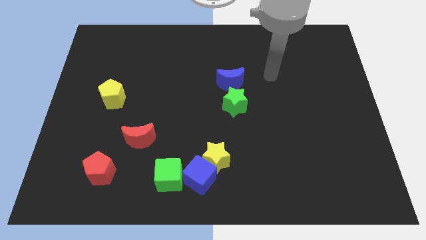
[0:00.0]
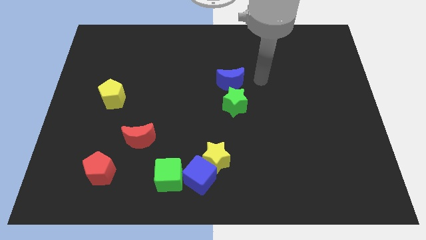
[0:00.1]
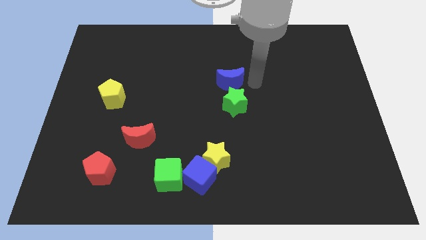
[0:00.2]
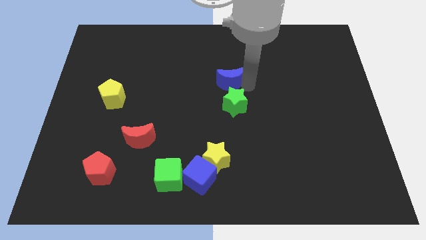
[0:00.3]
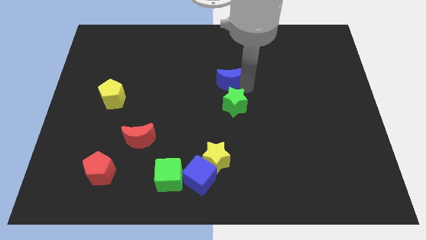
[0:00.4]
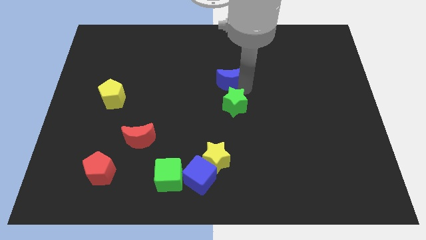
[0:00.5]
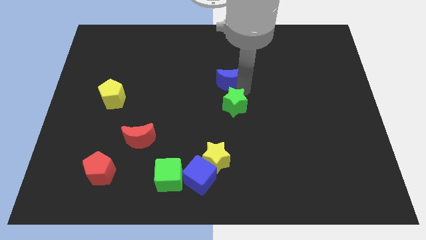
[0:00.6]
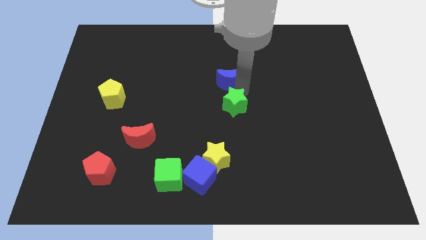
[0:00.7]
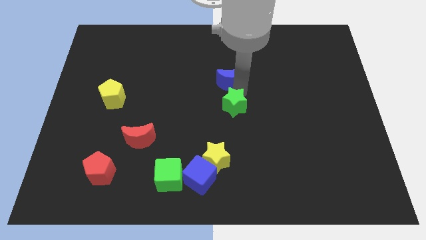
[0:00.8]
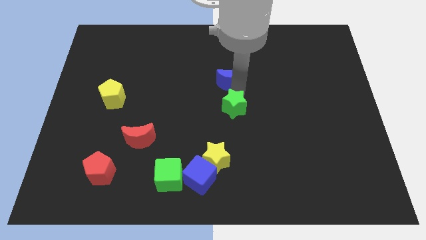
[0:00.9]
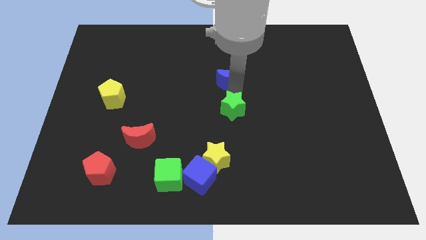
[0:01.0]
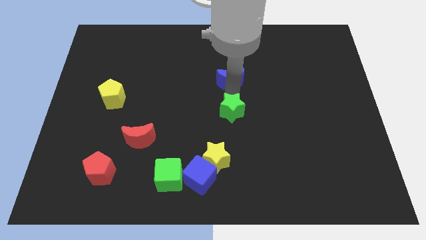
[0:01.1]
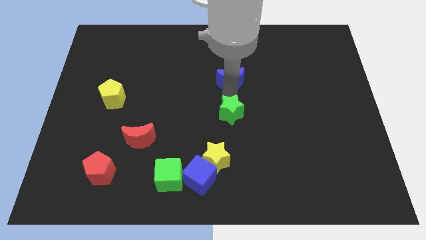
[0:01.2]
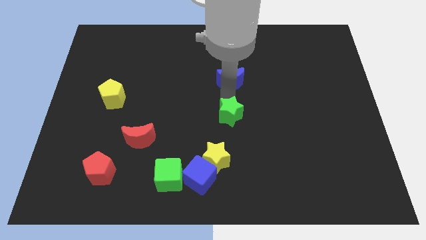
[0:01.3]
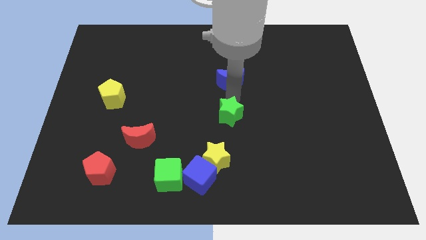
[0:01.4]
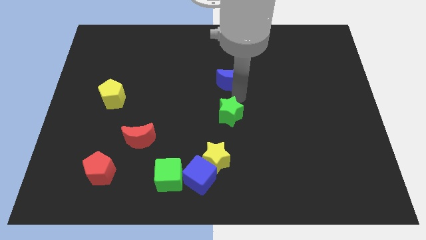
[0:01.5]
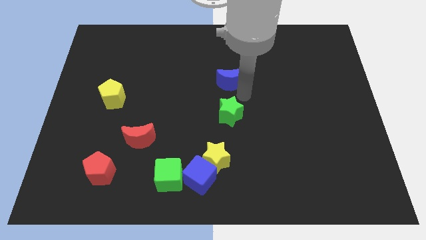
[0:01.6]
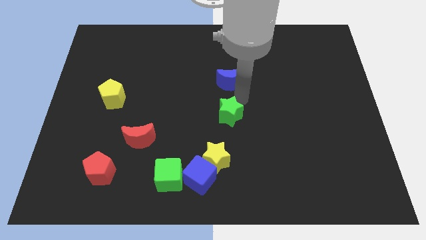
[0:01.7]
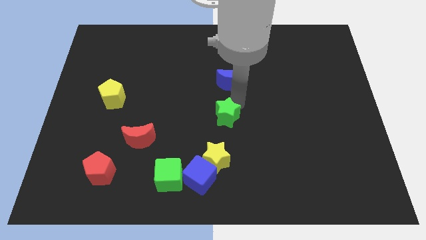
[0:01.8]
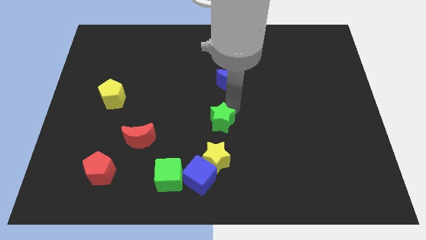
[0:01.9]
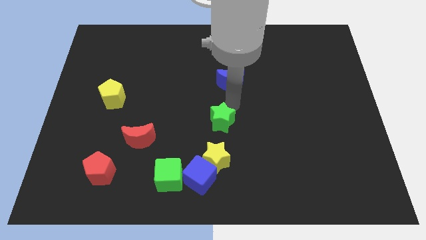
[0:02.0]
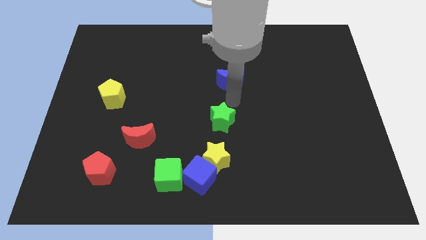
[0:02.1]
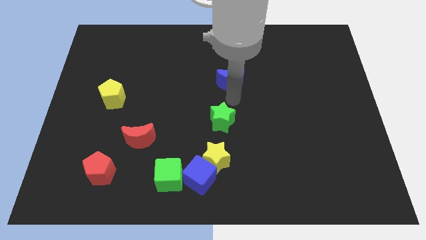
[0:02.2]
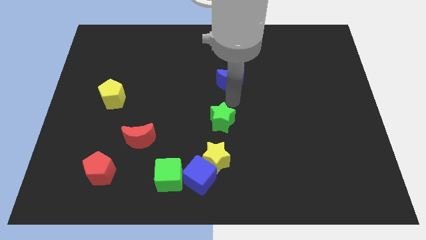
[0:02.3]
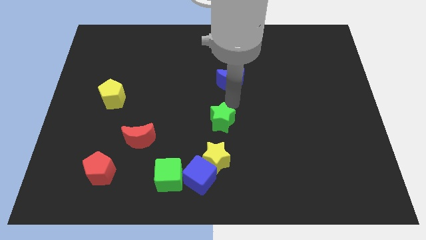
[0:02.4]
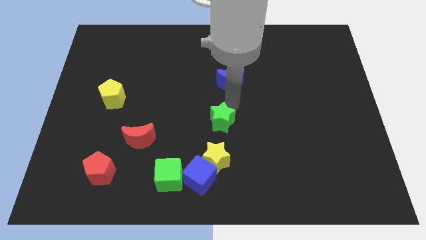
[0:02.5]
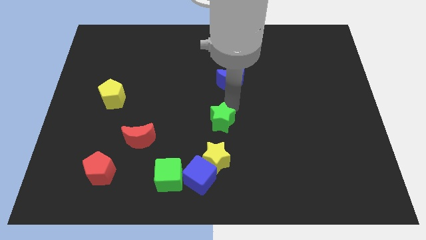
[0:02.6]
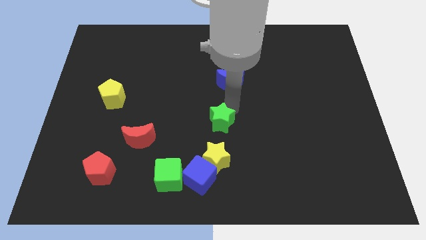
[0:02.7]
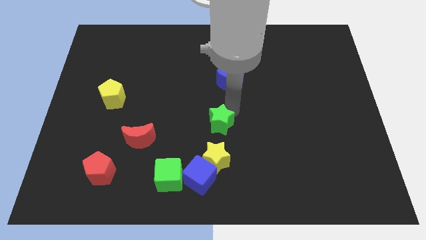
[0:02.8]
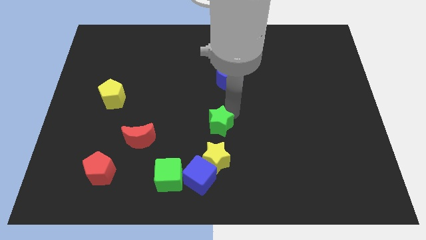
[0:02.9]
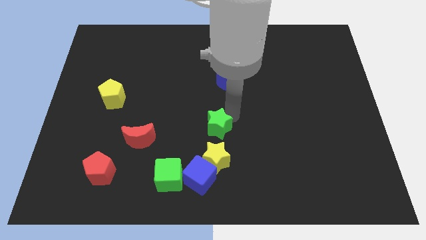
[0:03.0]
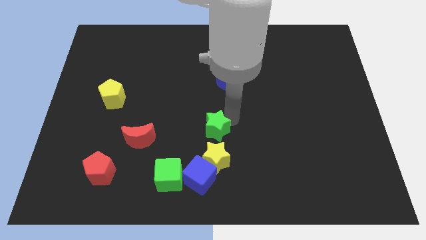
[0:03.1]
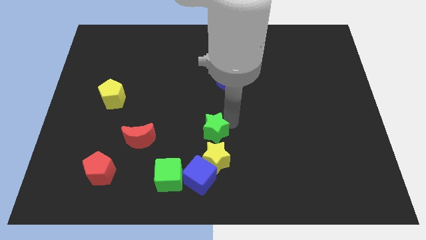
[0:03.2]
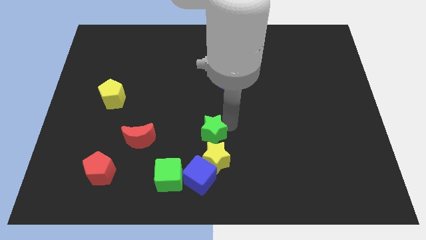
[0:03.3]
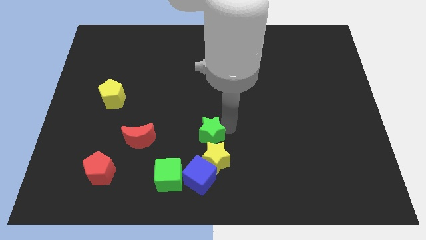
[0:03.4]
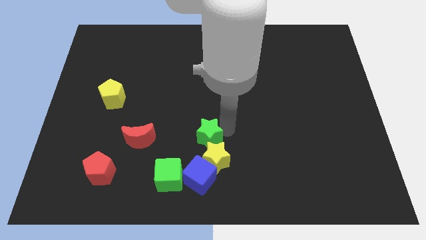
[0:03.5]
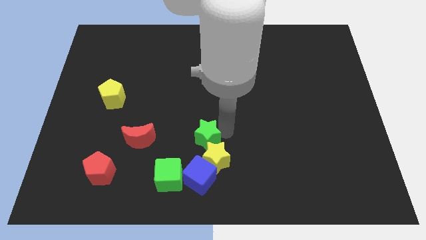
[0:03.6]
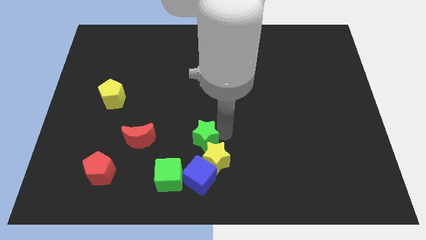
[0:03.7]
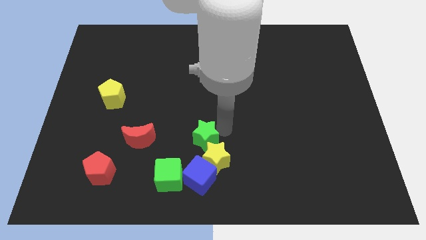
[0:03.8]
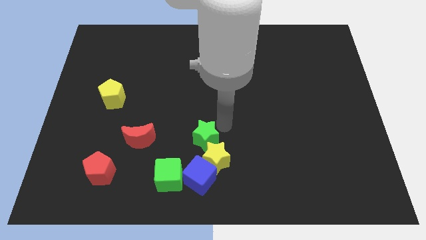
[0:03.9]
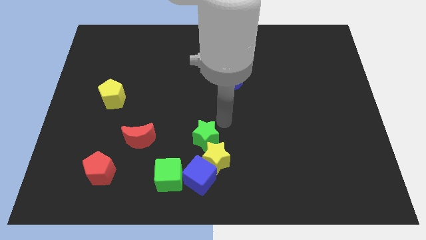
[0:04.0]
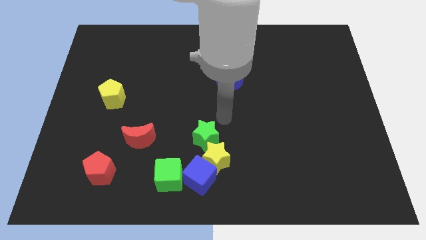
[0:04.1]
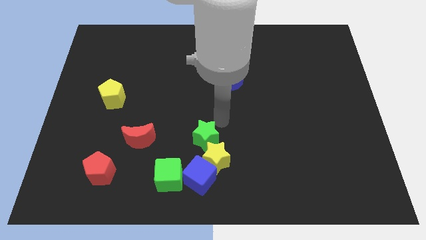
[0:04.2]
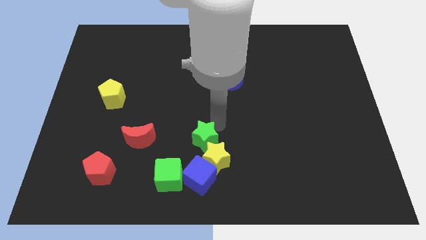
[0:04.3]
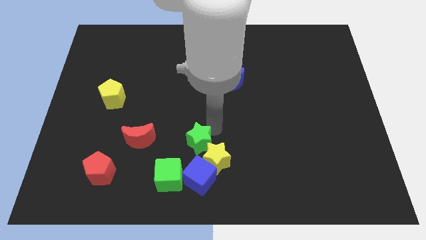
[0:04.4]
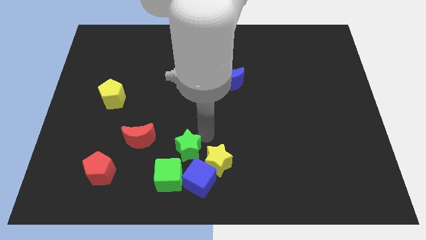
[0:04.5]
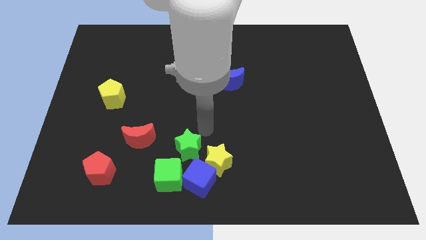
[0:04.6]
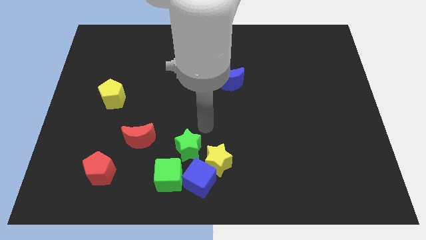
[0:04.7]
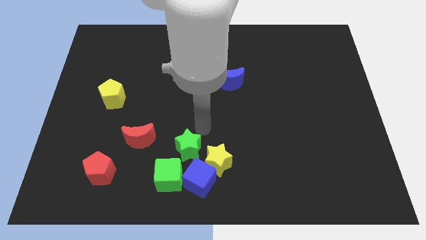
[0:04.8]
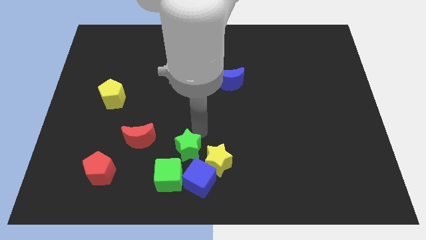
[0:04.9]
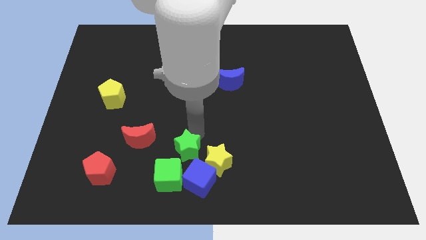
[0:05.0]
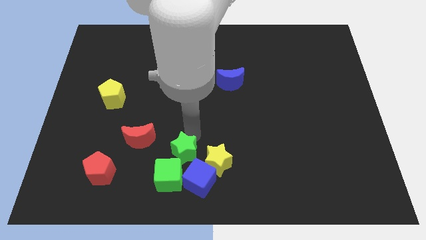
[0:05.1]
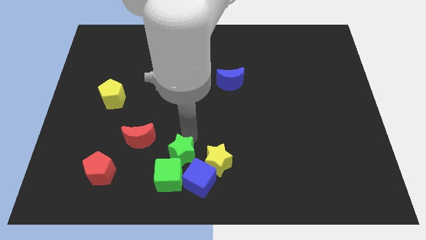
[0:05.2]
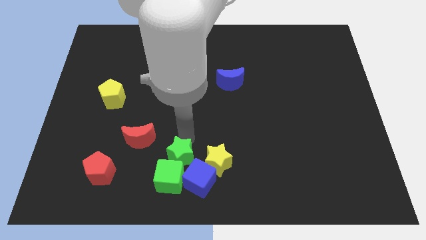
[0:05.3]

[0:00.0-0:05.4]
push the green star towards the green cube

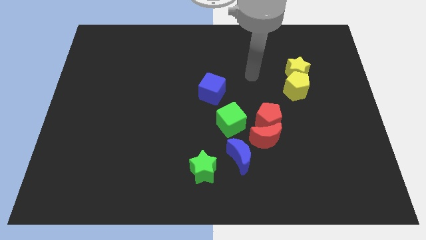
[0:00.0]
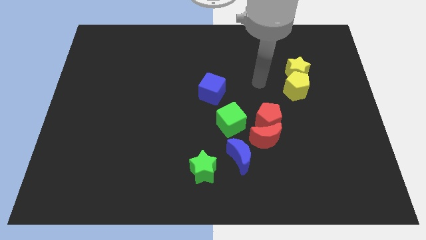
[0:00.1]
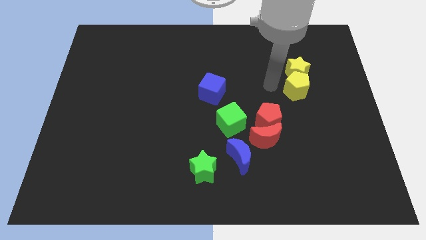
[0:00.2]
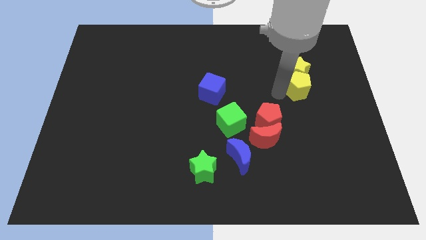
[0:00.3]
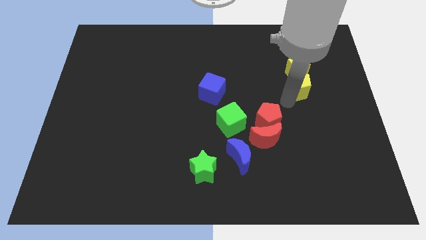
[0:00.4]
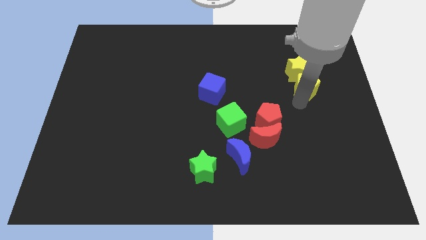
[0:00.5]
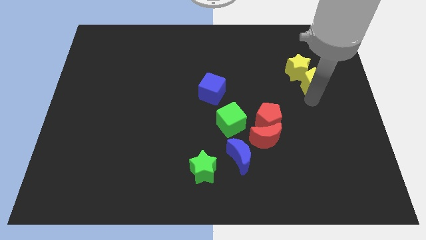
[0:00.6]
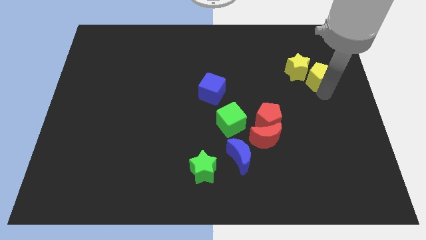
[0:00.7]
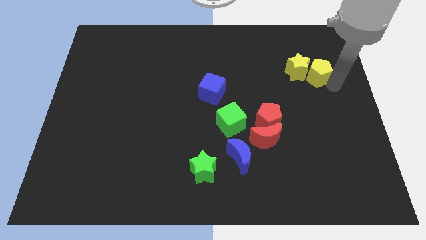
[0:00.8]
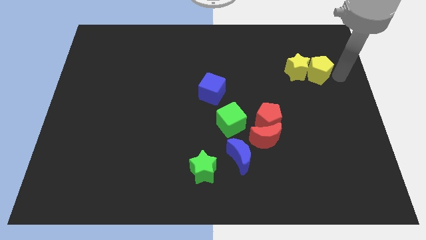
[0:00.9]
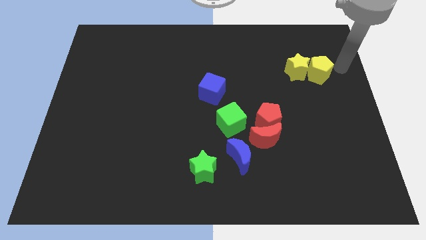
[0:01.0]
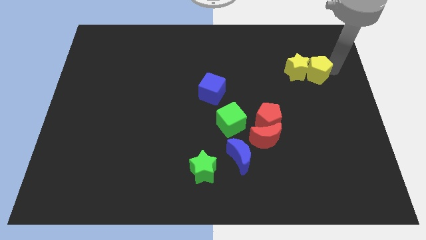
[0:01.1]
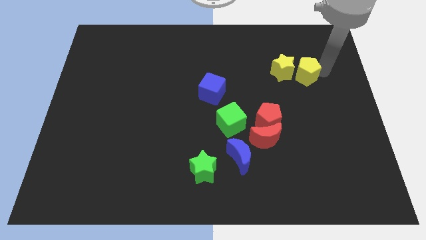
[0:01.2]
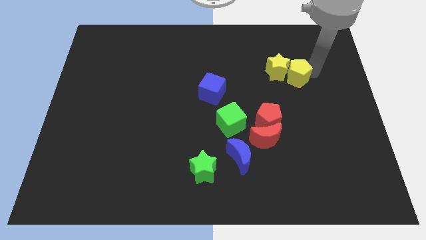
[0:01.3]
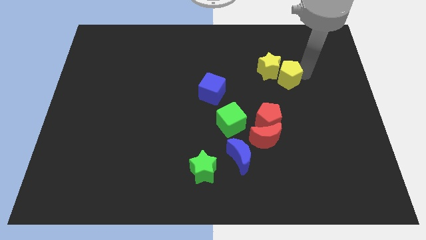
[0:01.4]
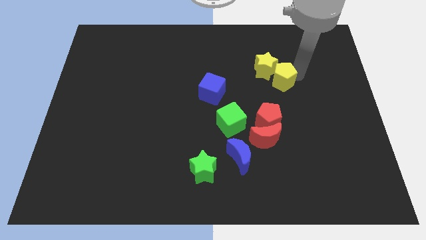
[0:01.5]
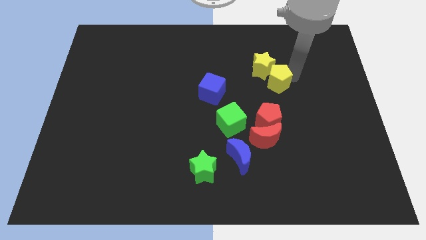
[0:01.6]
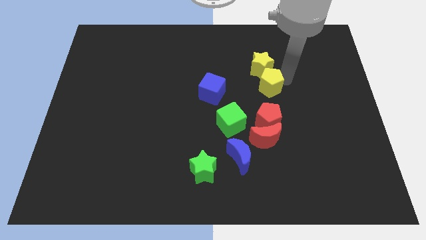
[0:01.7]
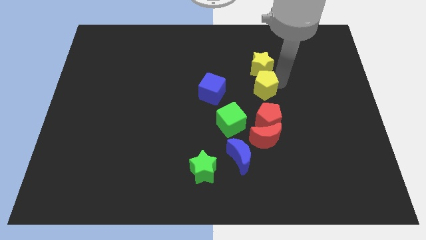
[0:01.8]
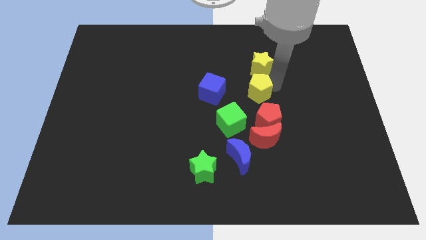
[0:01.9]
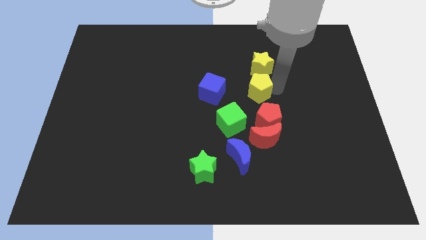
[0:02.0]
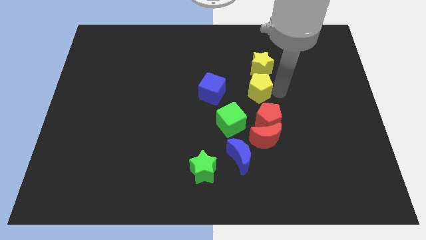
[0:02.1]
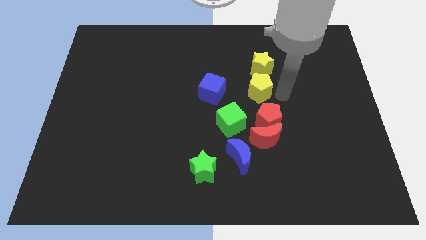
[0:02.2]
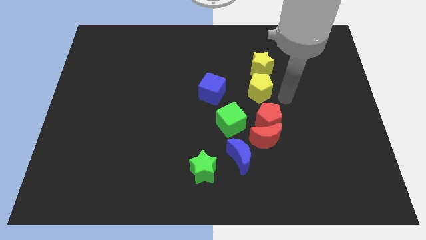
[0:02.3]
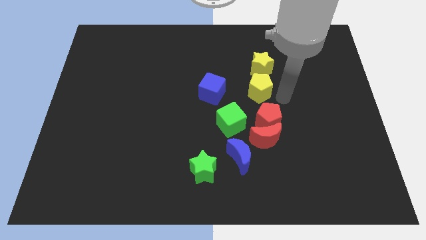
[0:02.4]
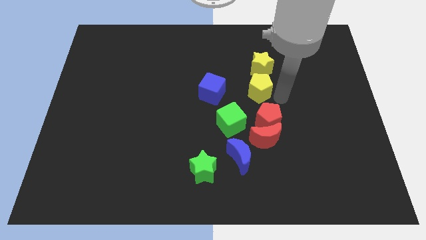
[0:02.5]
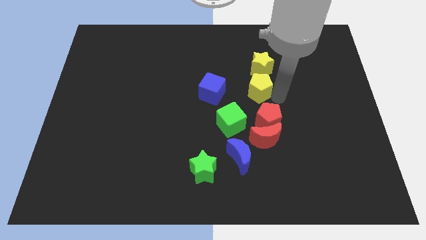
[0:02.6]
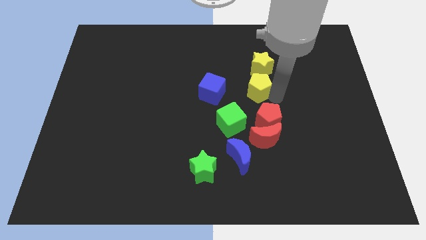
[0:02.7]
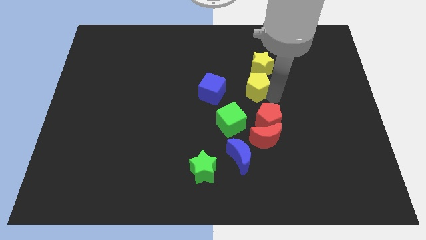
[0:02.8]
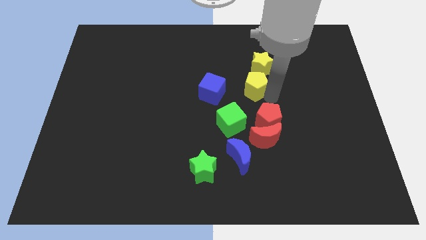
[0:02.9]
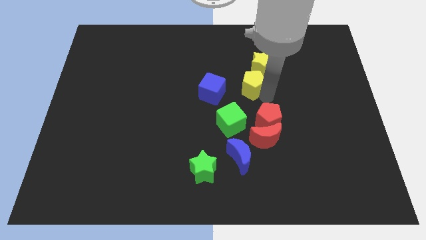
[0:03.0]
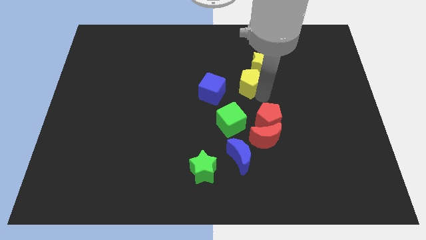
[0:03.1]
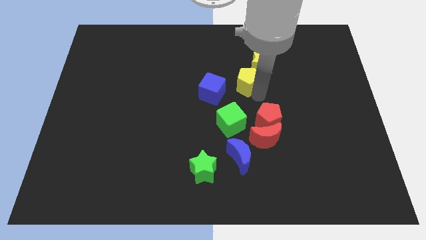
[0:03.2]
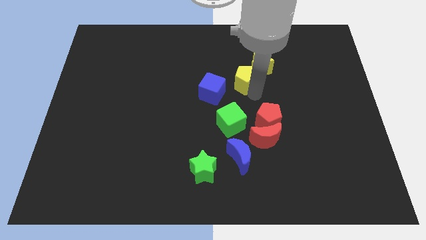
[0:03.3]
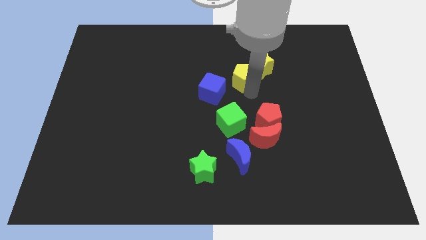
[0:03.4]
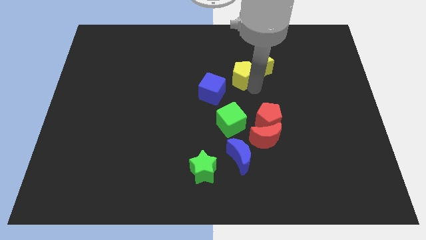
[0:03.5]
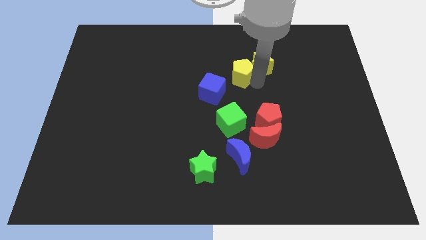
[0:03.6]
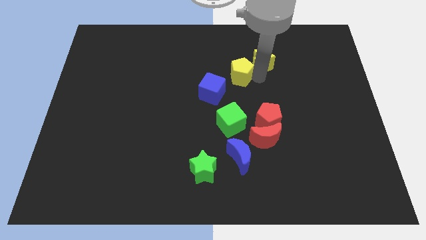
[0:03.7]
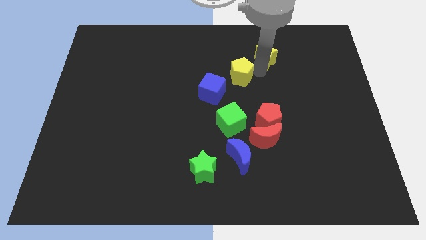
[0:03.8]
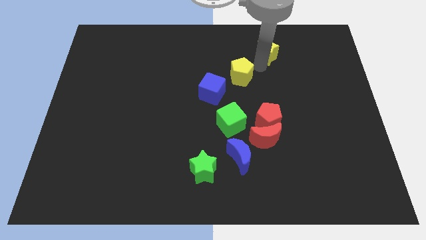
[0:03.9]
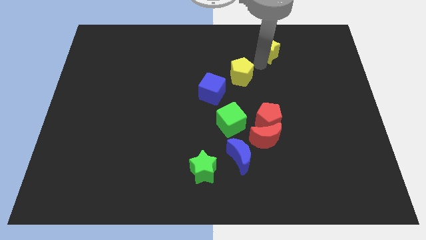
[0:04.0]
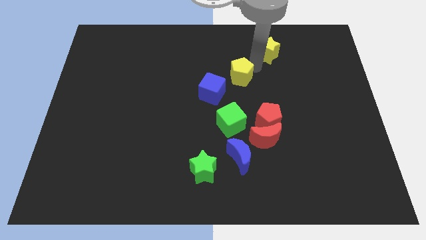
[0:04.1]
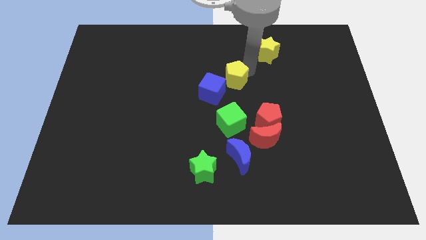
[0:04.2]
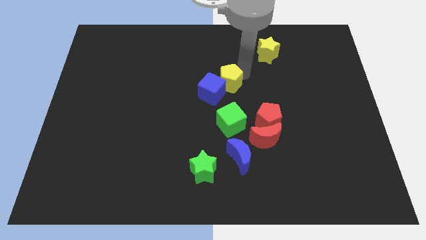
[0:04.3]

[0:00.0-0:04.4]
put the yellow pentagon to the blue cube
